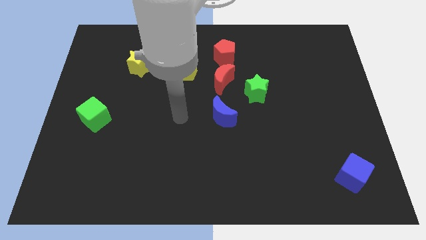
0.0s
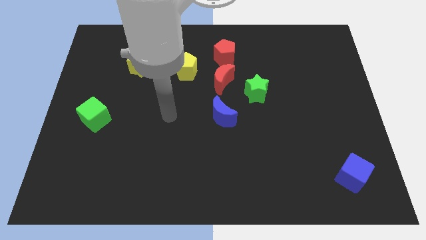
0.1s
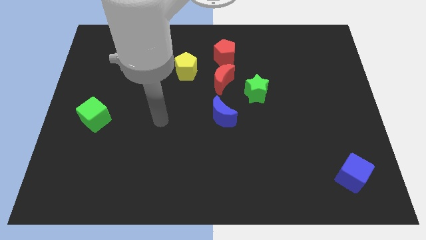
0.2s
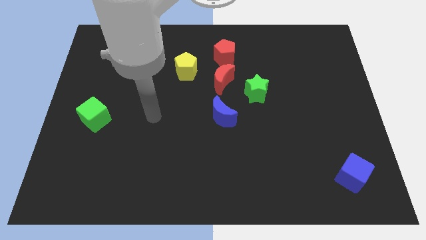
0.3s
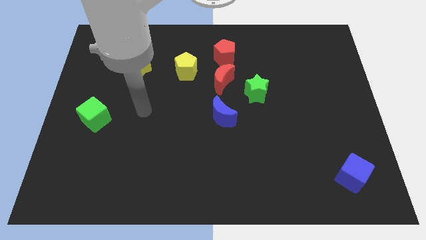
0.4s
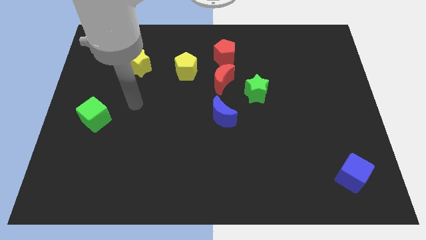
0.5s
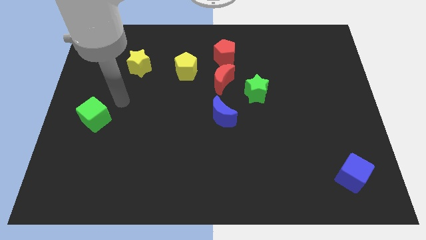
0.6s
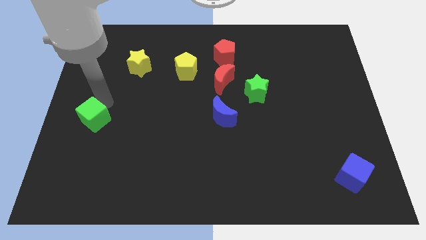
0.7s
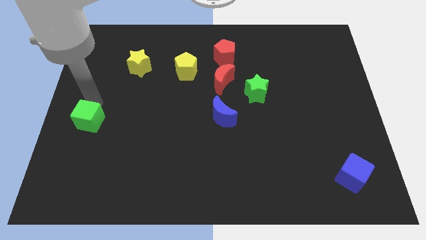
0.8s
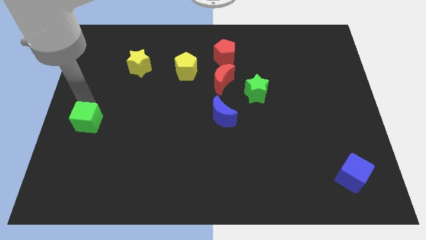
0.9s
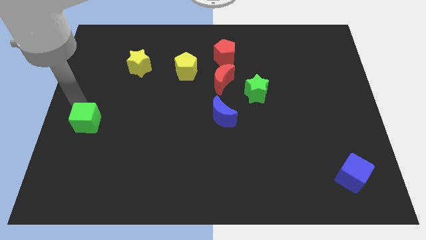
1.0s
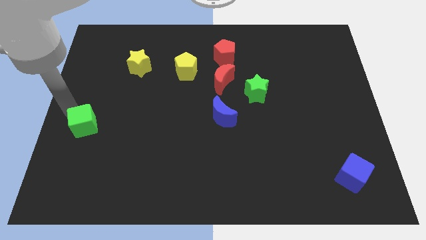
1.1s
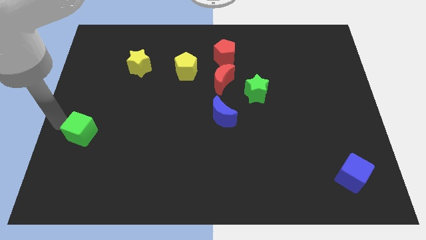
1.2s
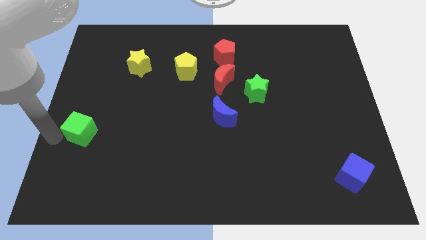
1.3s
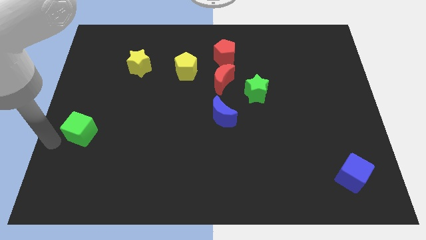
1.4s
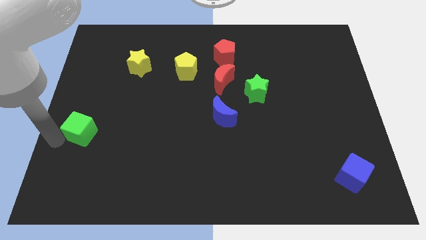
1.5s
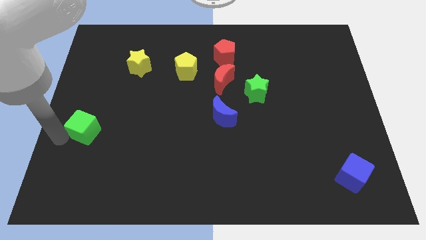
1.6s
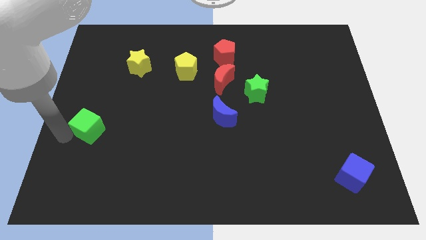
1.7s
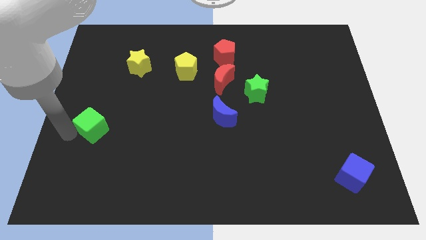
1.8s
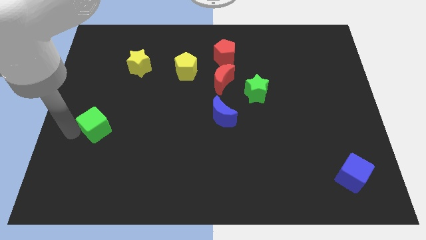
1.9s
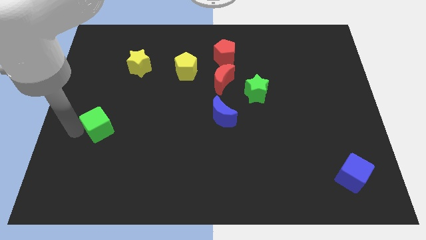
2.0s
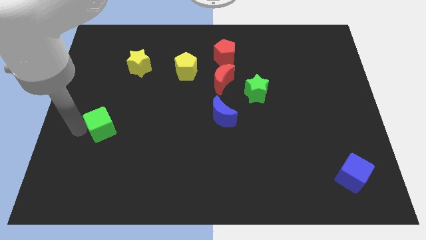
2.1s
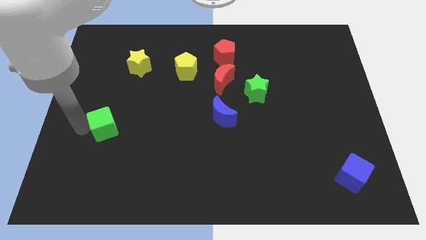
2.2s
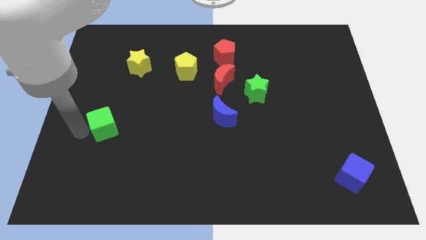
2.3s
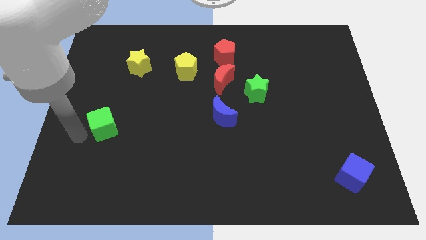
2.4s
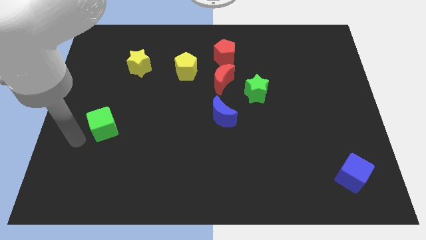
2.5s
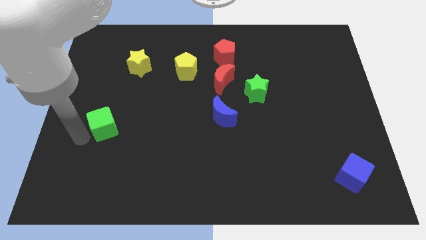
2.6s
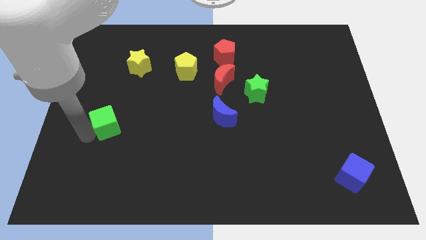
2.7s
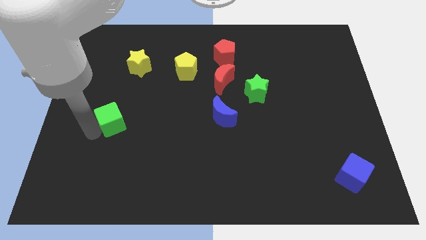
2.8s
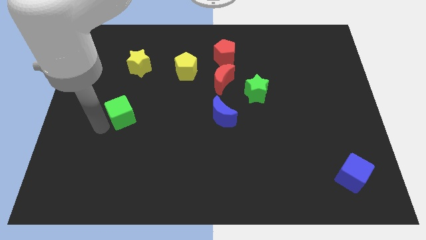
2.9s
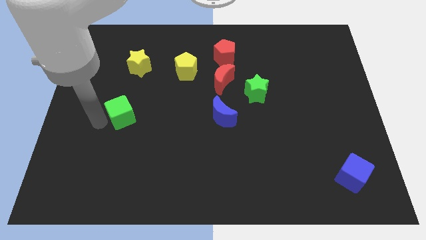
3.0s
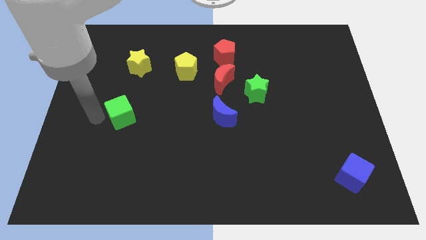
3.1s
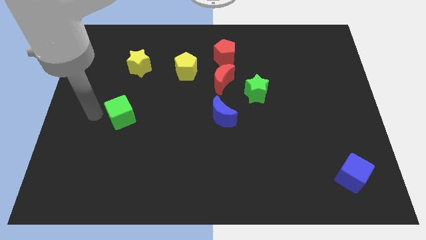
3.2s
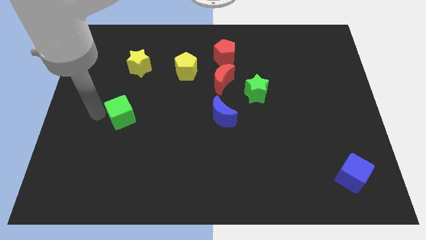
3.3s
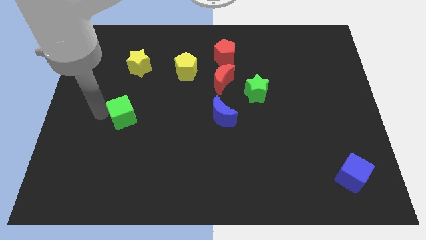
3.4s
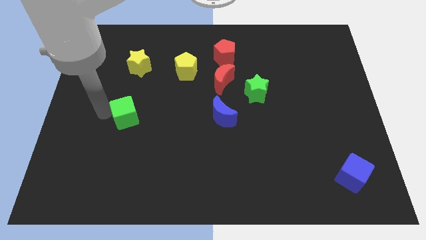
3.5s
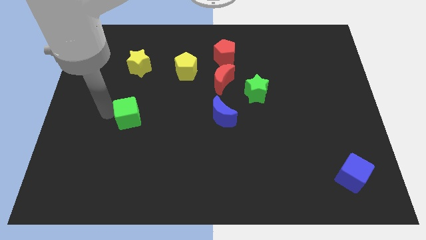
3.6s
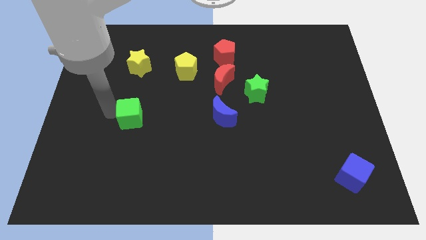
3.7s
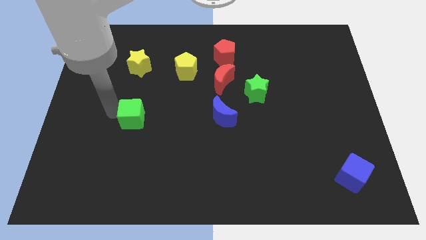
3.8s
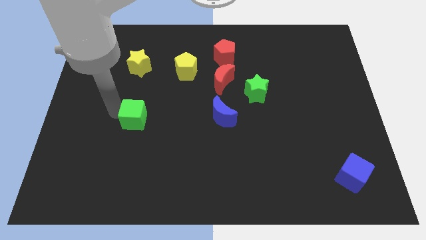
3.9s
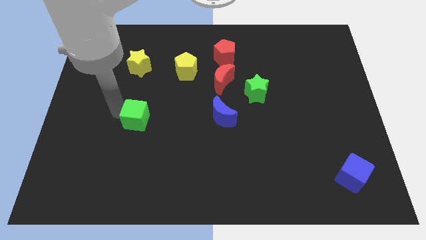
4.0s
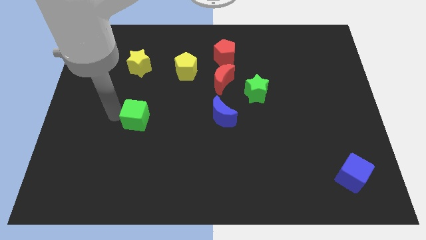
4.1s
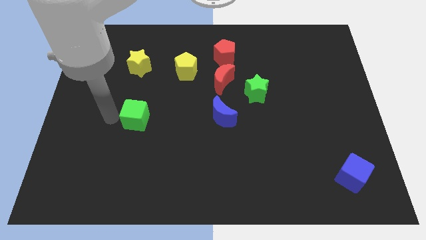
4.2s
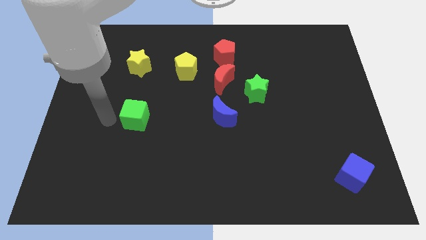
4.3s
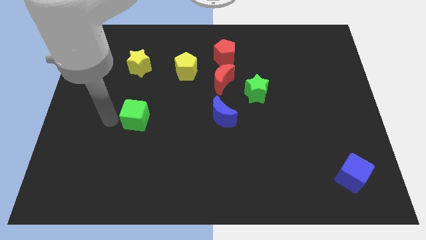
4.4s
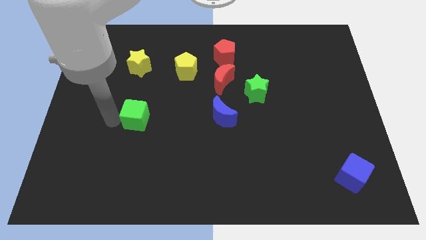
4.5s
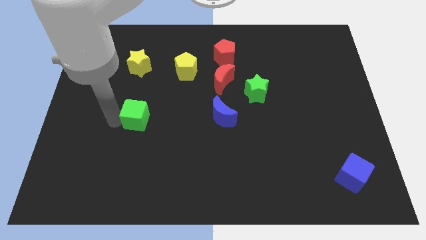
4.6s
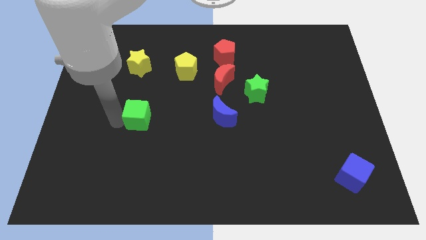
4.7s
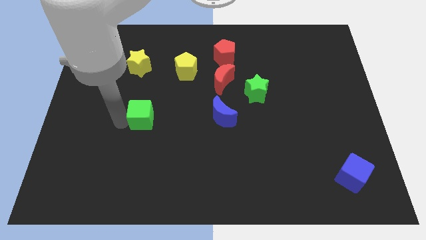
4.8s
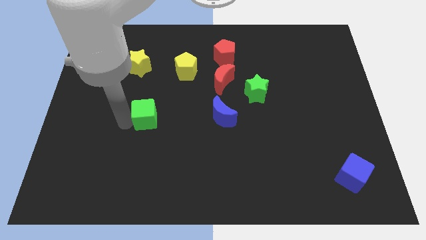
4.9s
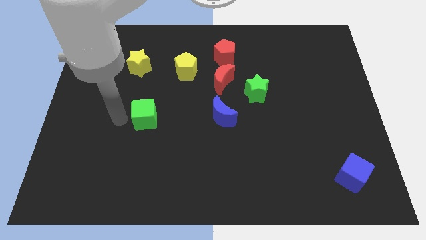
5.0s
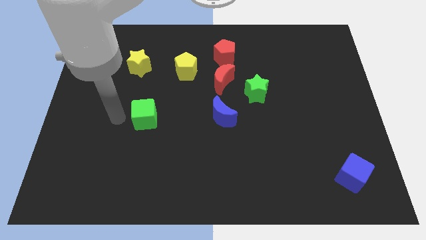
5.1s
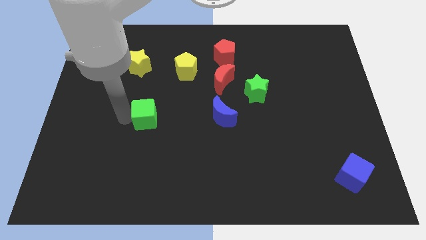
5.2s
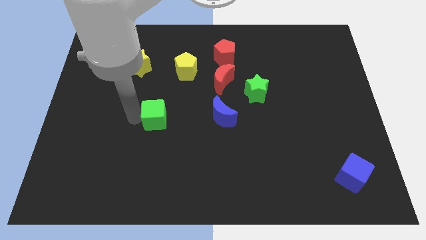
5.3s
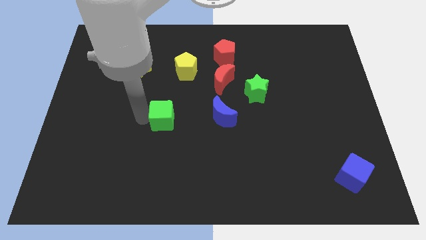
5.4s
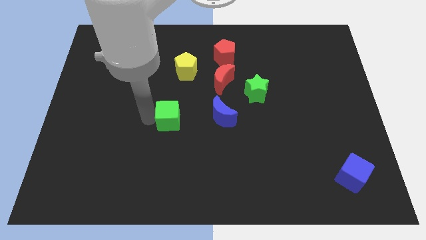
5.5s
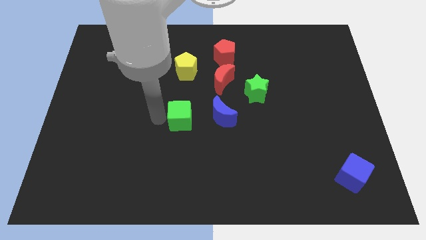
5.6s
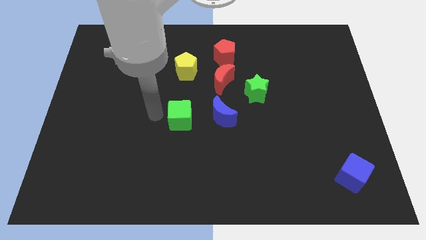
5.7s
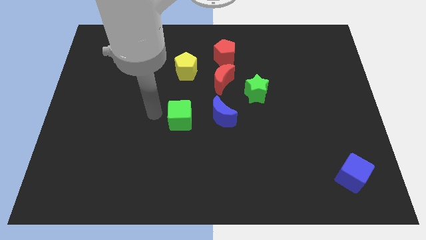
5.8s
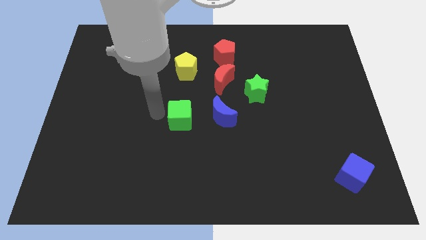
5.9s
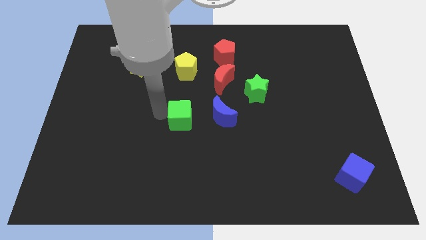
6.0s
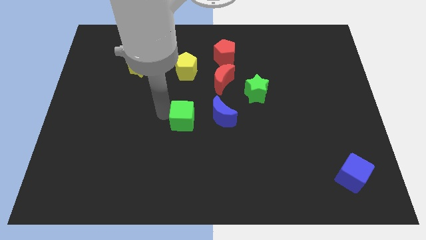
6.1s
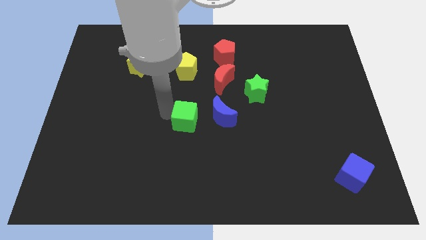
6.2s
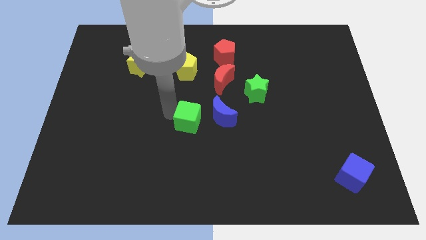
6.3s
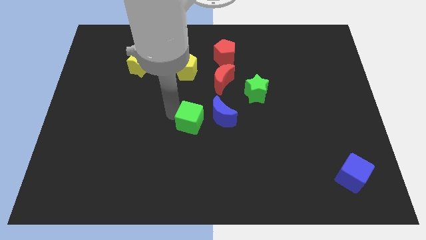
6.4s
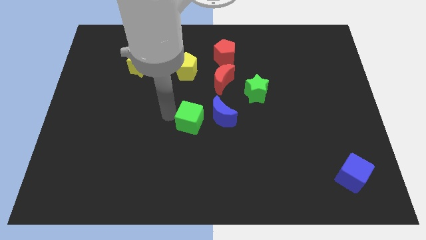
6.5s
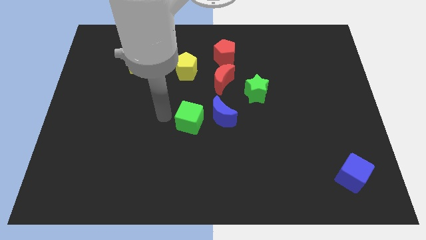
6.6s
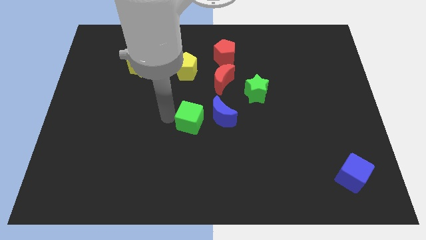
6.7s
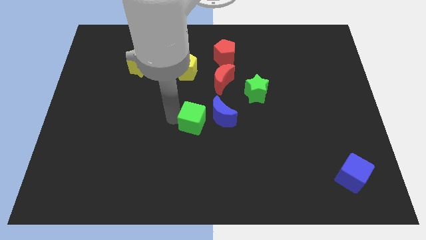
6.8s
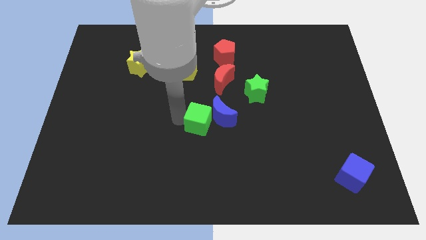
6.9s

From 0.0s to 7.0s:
push the green cube close to the blue moon

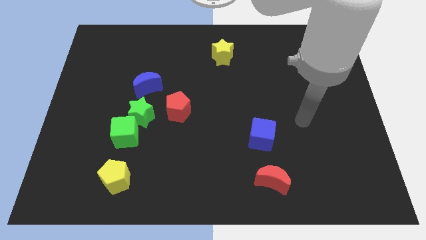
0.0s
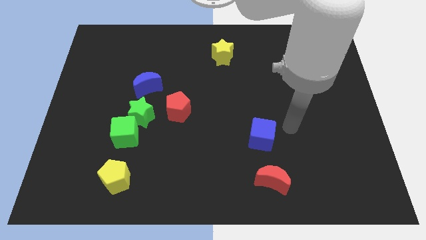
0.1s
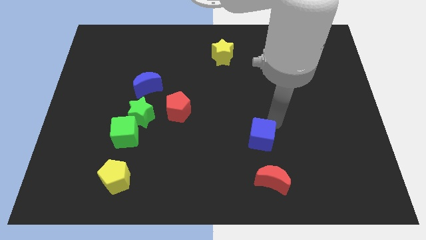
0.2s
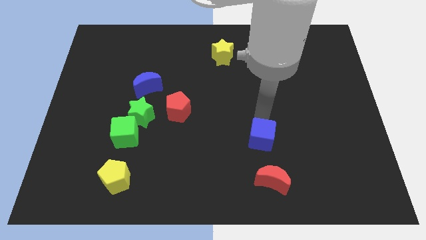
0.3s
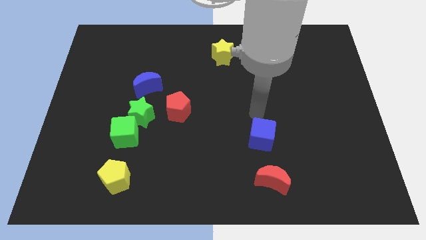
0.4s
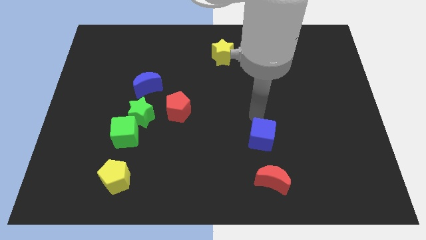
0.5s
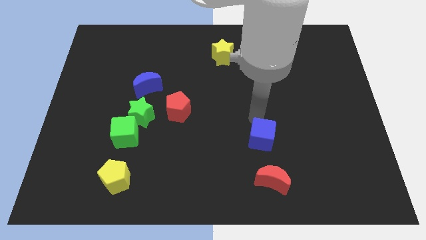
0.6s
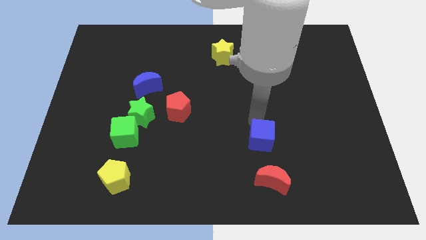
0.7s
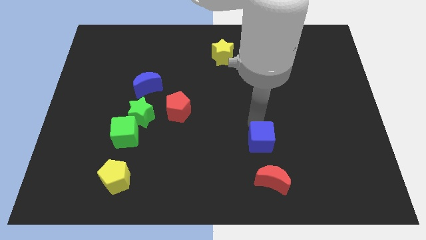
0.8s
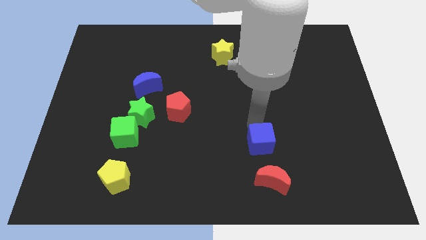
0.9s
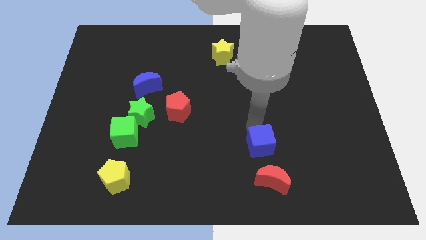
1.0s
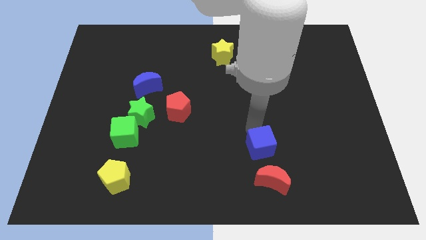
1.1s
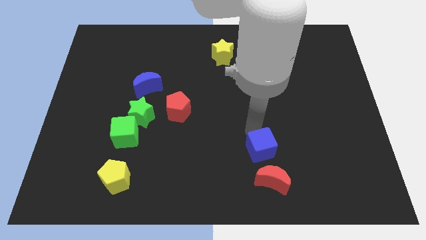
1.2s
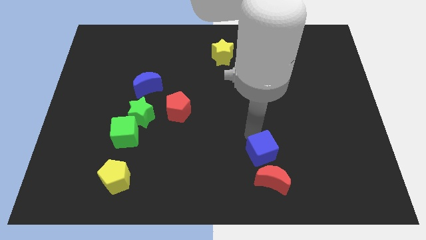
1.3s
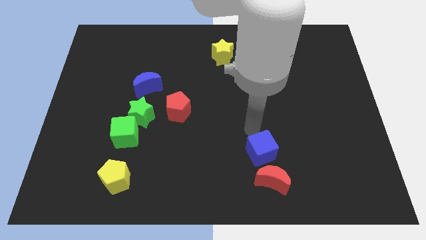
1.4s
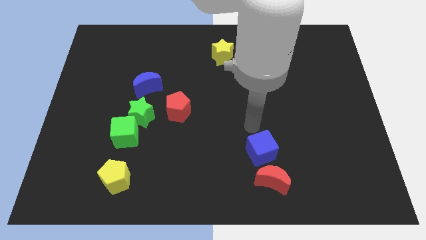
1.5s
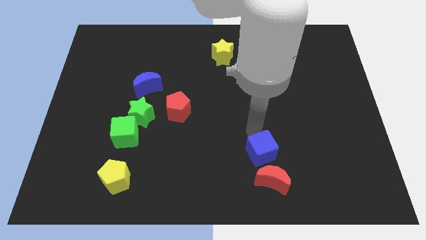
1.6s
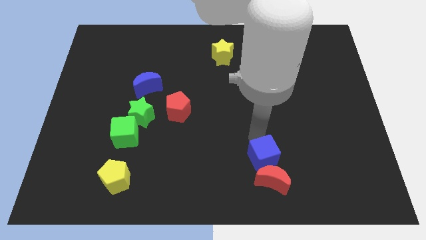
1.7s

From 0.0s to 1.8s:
push the blue cube next to the red moon
